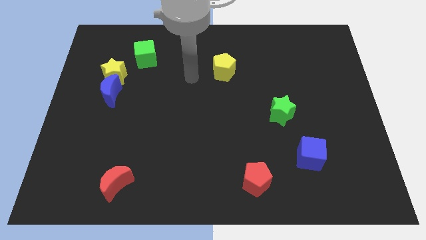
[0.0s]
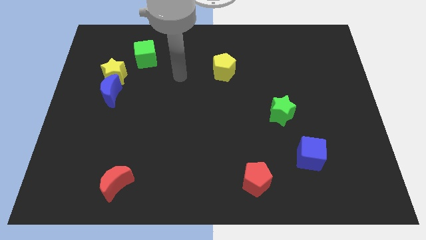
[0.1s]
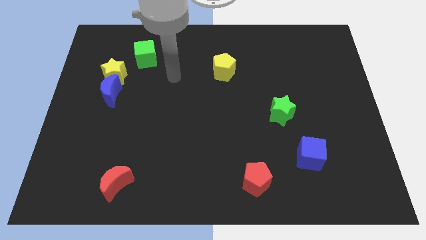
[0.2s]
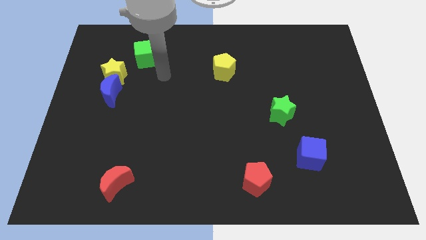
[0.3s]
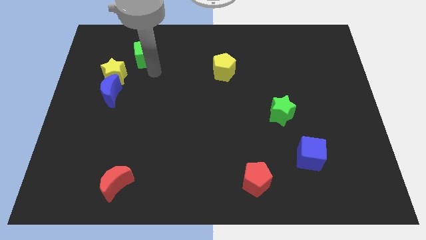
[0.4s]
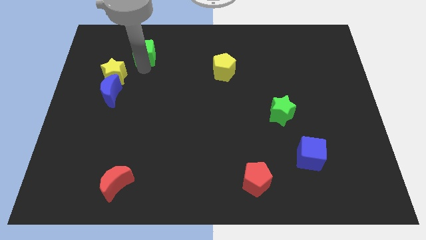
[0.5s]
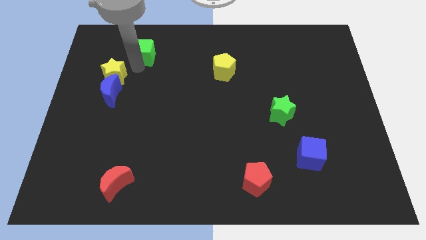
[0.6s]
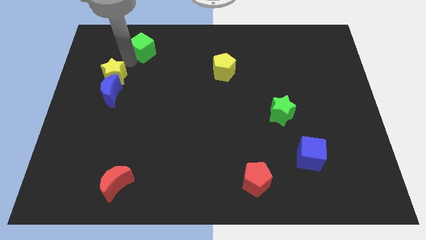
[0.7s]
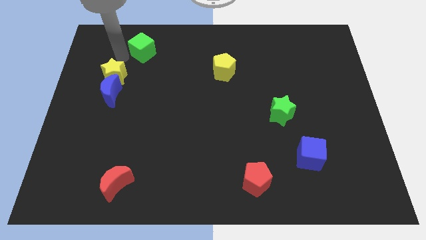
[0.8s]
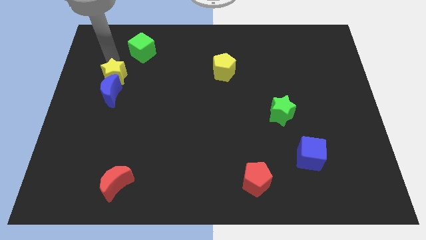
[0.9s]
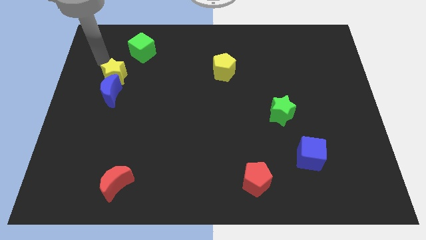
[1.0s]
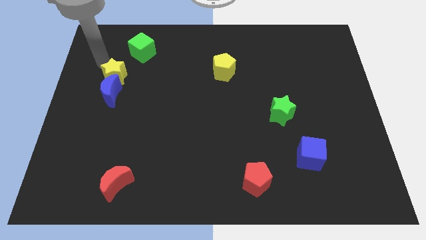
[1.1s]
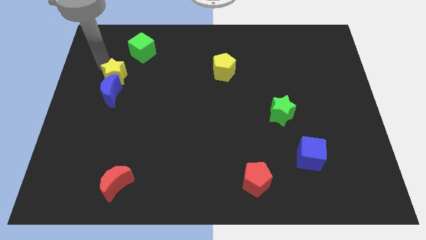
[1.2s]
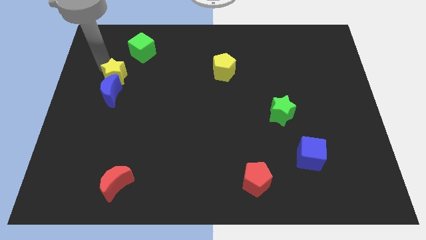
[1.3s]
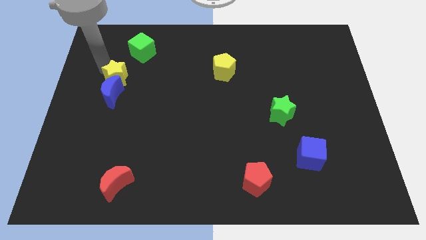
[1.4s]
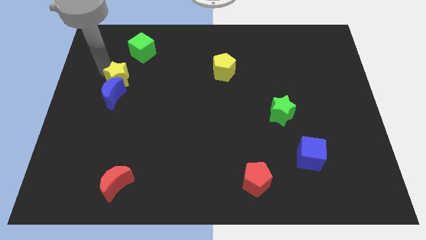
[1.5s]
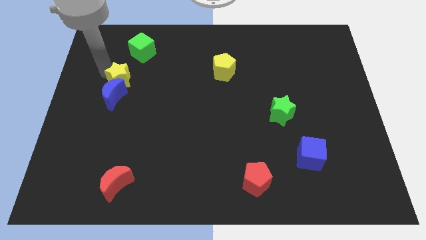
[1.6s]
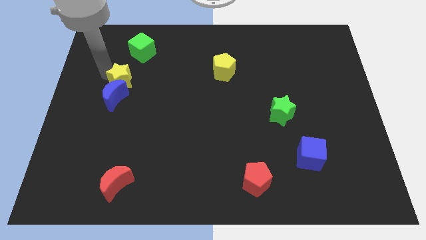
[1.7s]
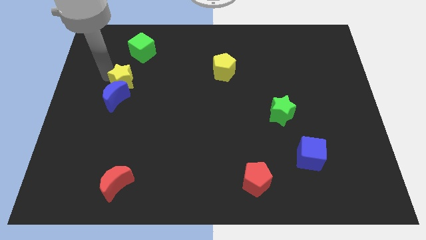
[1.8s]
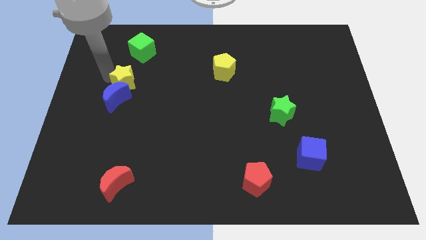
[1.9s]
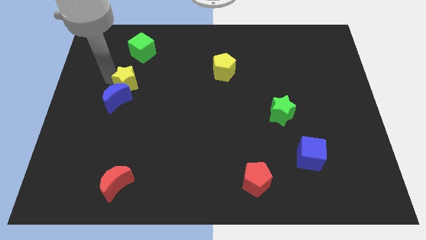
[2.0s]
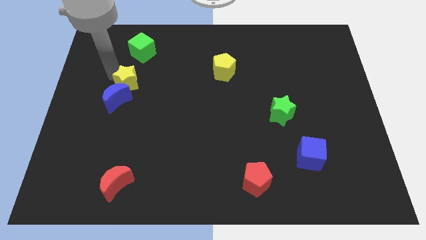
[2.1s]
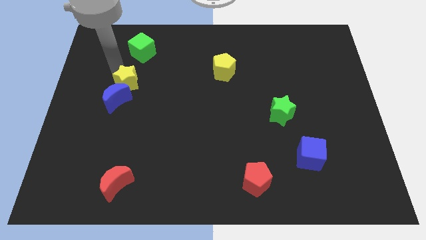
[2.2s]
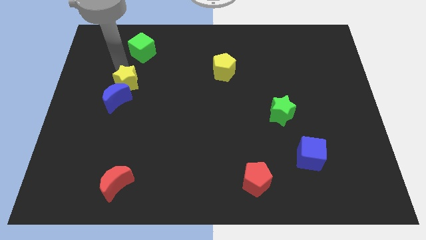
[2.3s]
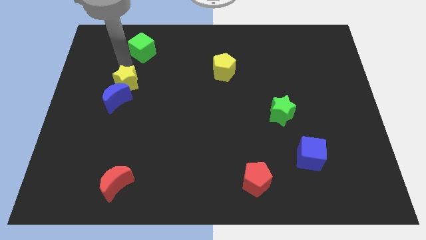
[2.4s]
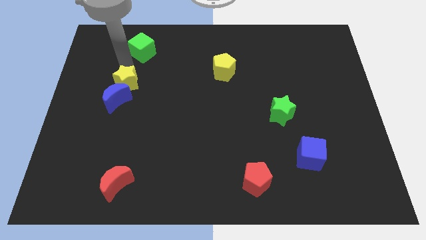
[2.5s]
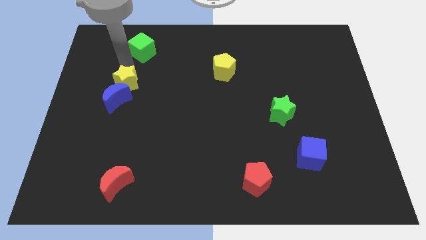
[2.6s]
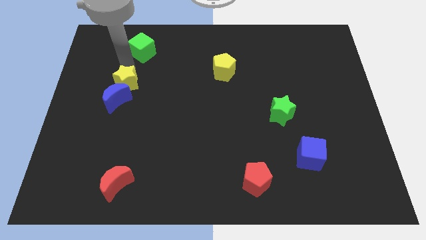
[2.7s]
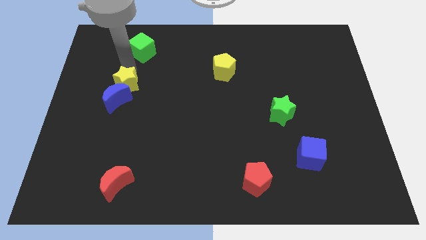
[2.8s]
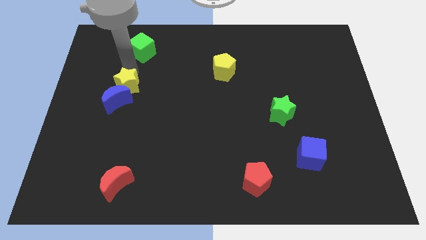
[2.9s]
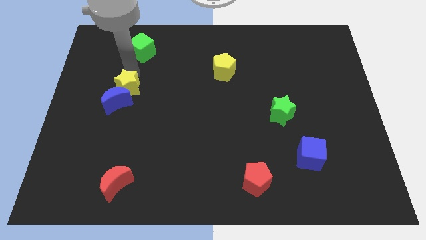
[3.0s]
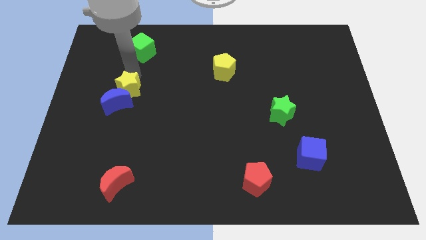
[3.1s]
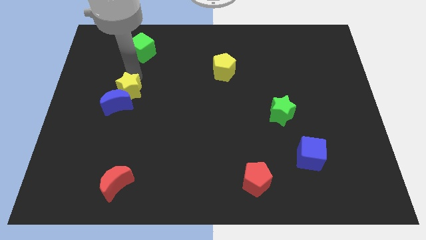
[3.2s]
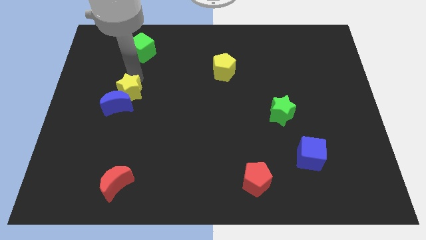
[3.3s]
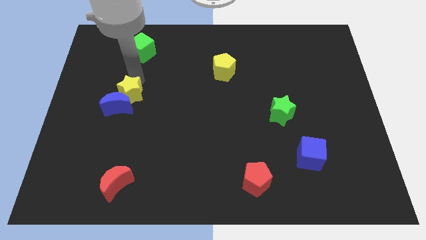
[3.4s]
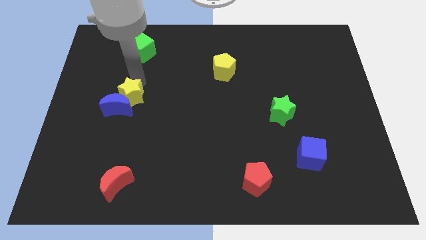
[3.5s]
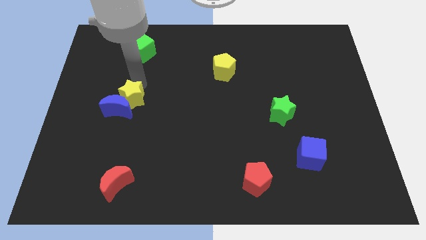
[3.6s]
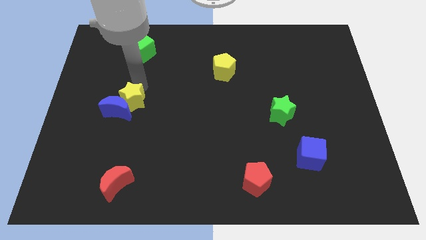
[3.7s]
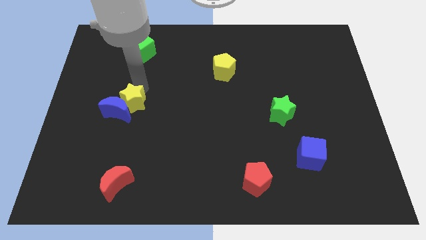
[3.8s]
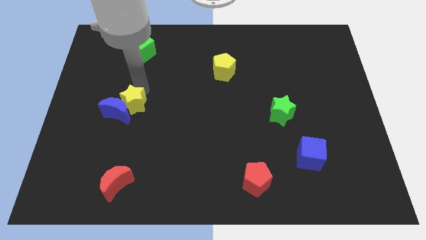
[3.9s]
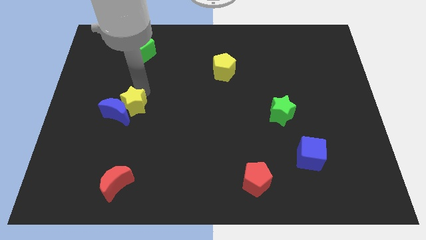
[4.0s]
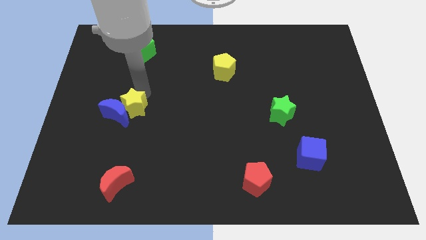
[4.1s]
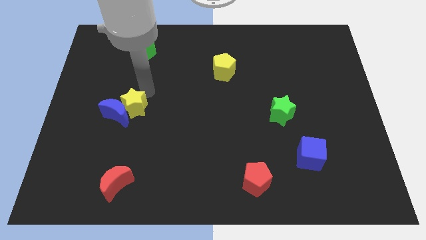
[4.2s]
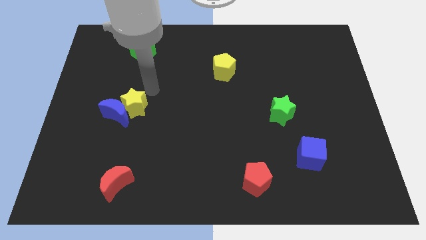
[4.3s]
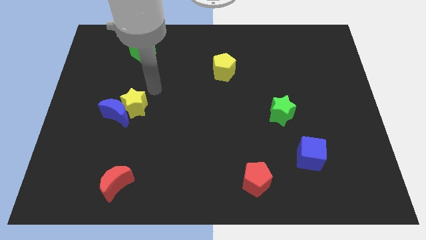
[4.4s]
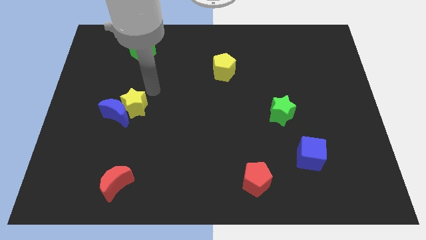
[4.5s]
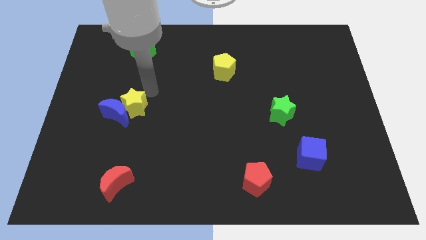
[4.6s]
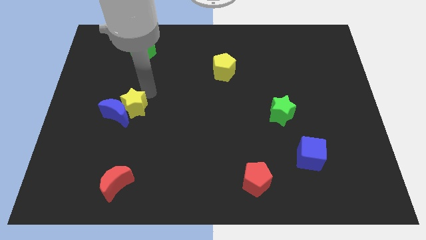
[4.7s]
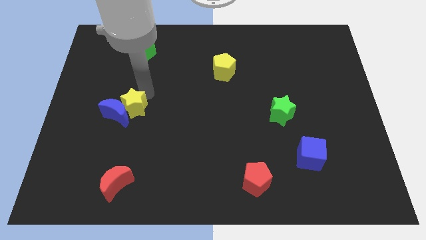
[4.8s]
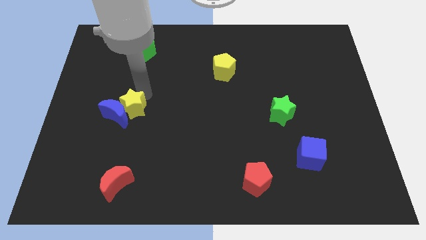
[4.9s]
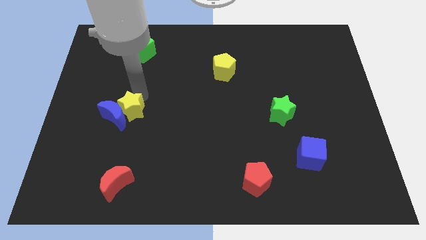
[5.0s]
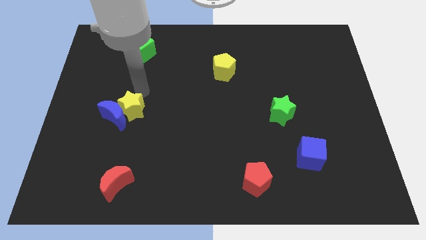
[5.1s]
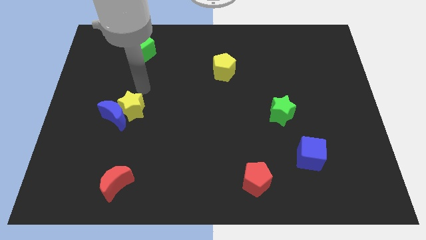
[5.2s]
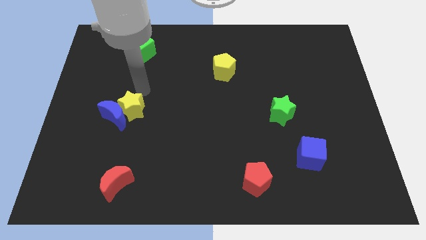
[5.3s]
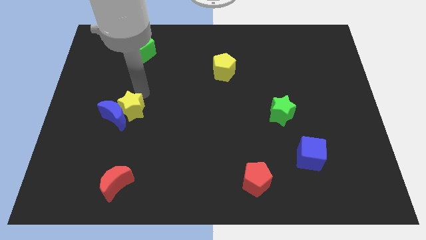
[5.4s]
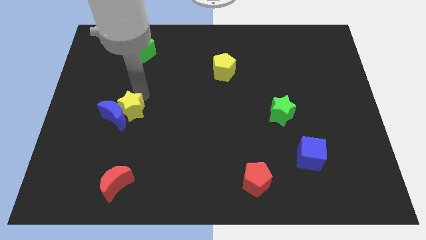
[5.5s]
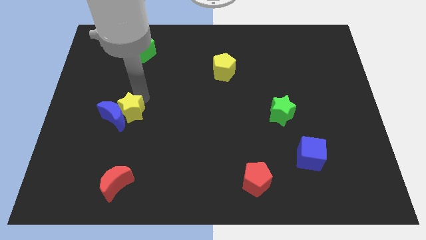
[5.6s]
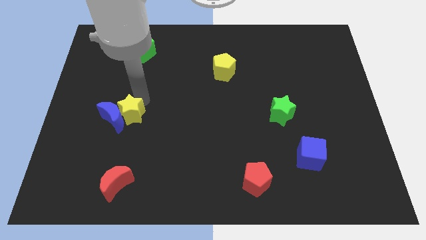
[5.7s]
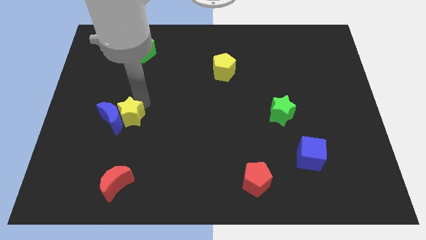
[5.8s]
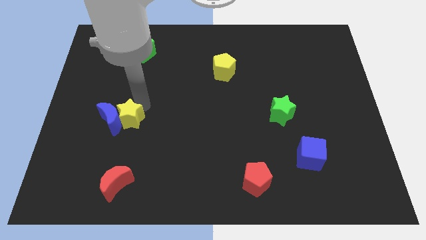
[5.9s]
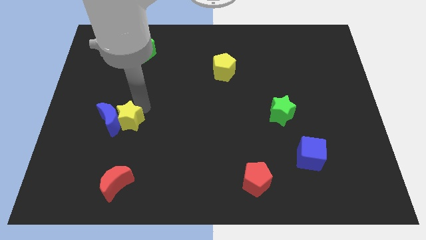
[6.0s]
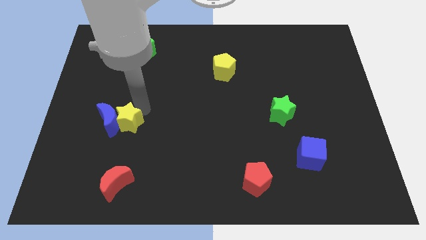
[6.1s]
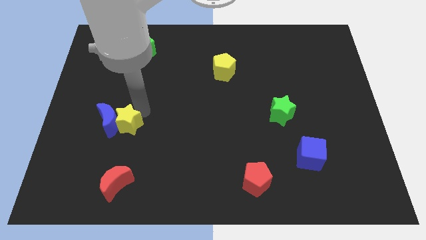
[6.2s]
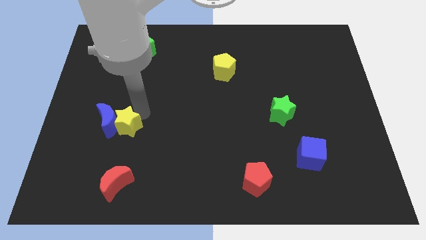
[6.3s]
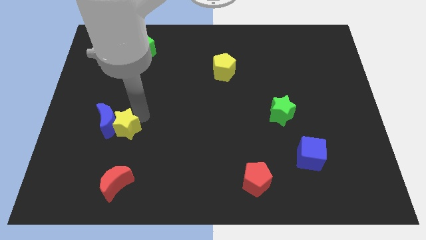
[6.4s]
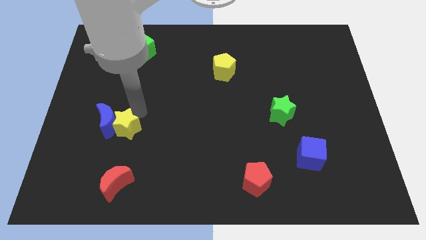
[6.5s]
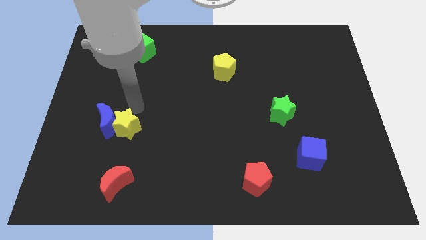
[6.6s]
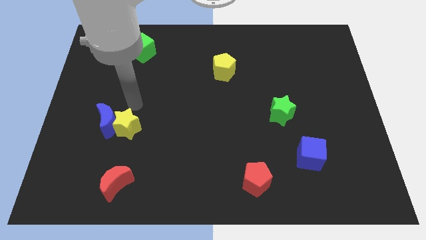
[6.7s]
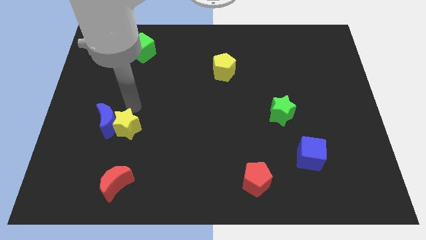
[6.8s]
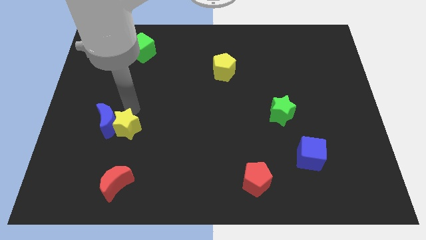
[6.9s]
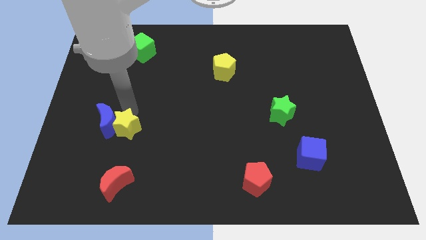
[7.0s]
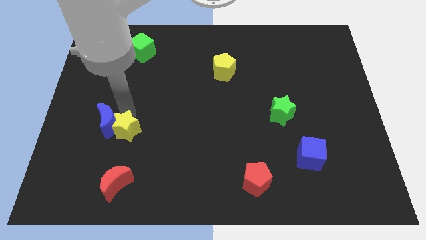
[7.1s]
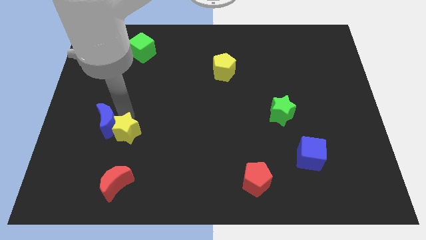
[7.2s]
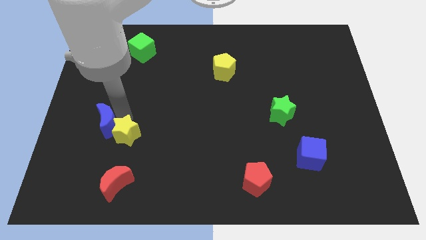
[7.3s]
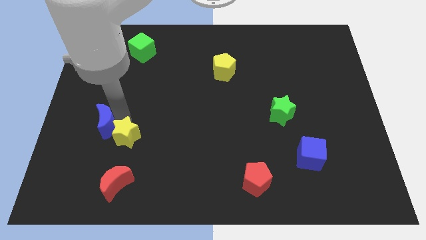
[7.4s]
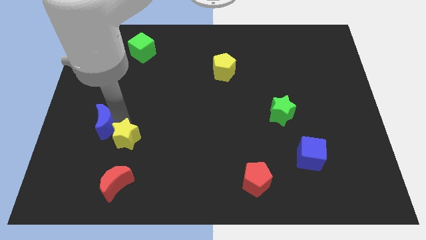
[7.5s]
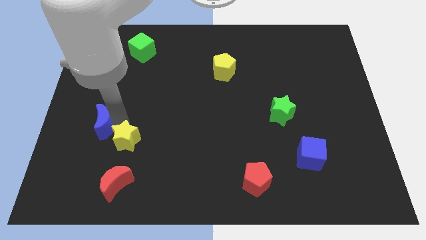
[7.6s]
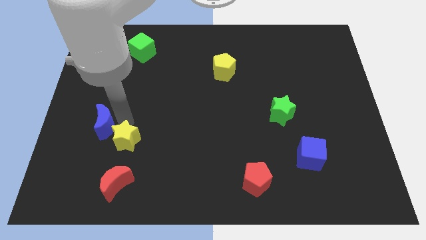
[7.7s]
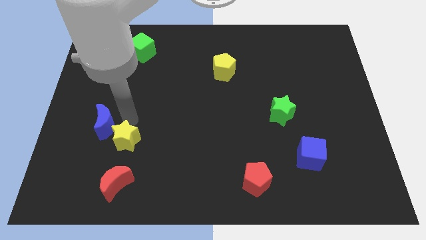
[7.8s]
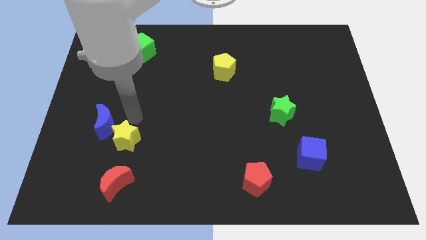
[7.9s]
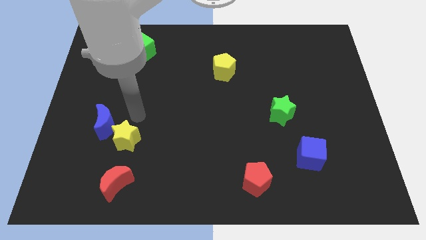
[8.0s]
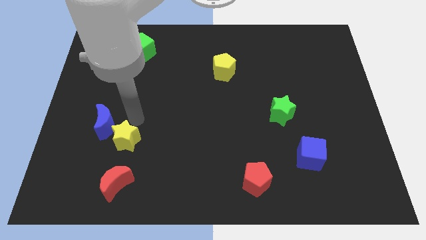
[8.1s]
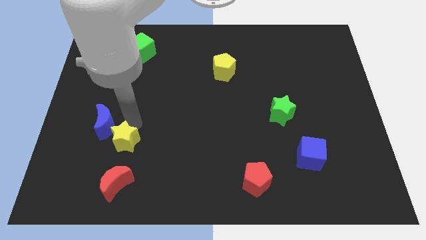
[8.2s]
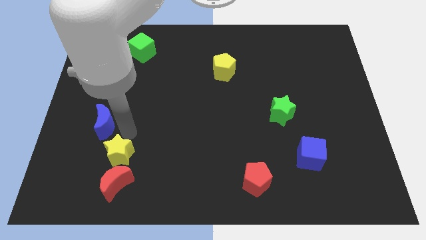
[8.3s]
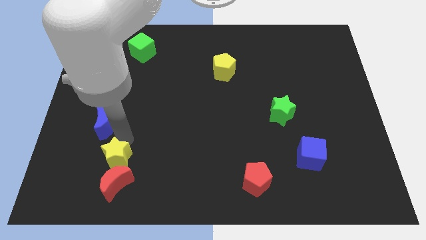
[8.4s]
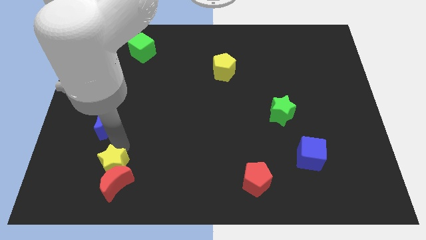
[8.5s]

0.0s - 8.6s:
slide the yellow star to the red moon

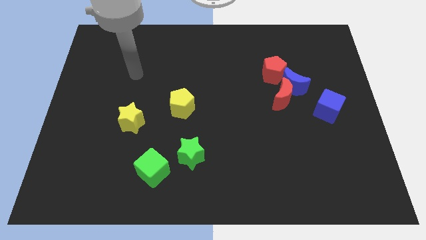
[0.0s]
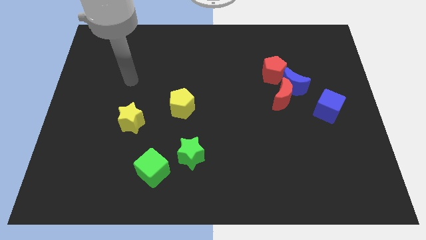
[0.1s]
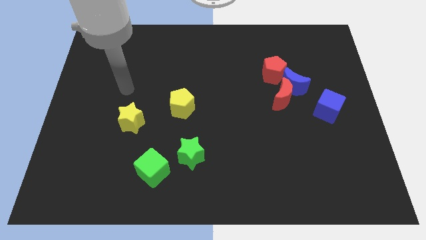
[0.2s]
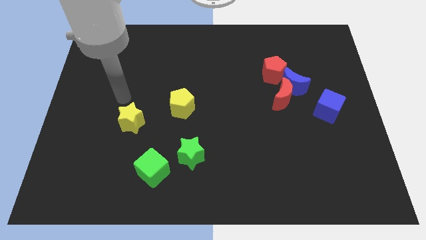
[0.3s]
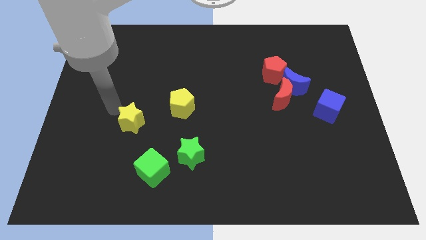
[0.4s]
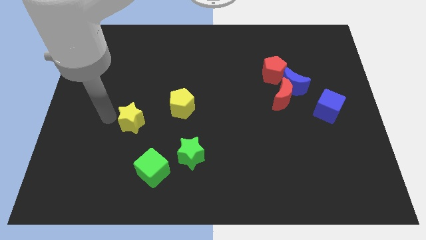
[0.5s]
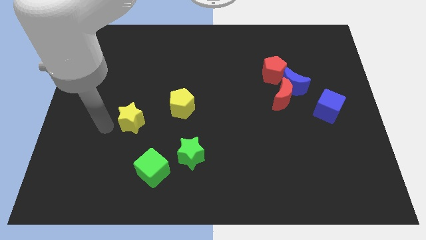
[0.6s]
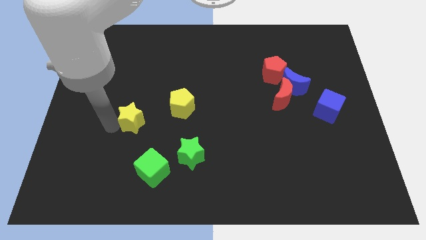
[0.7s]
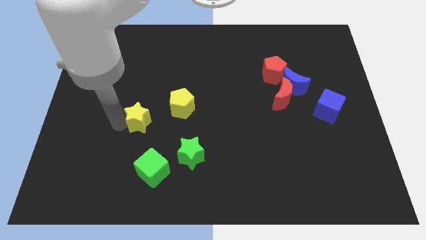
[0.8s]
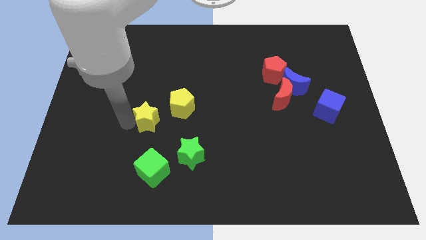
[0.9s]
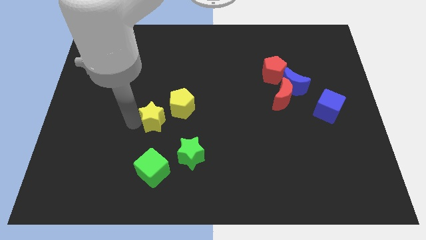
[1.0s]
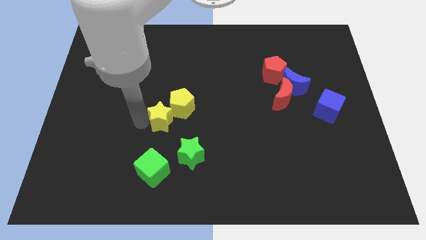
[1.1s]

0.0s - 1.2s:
push the yellow star towards the yellow pentagon
